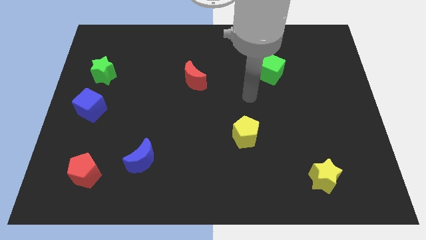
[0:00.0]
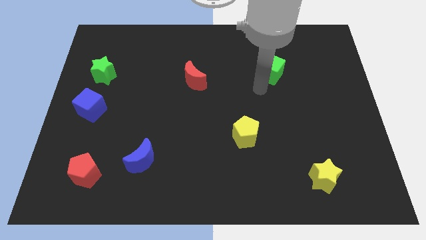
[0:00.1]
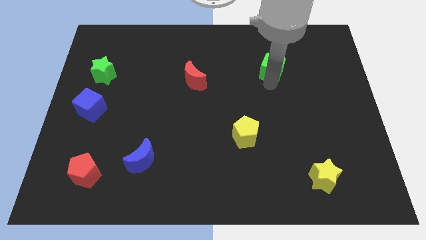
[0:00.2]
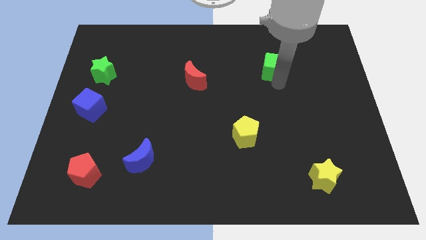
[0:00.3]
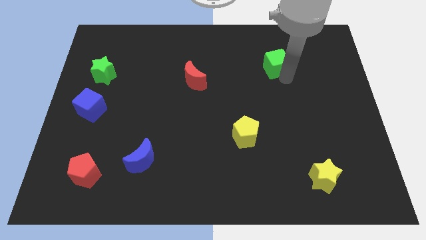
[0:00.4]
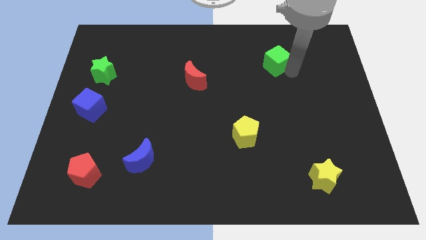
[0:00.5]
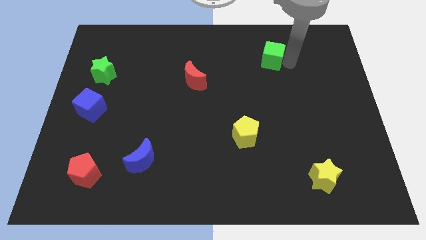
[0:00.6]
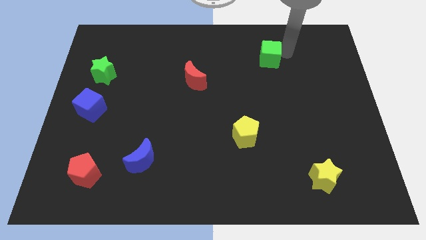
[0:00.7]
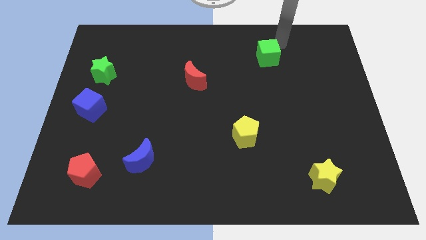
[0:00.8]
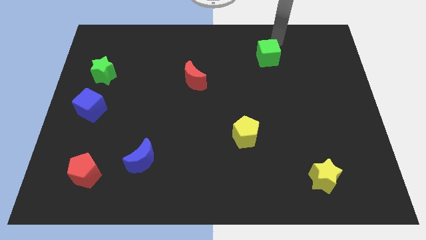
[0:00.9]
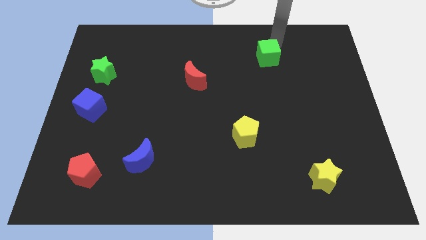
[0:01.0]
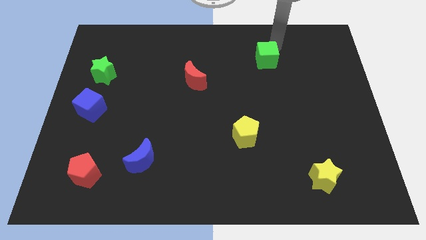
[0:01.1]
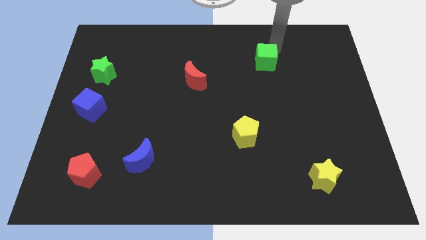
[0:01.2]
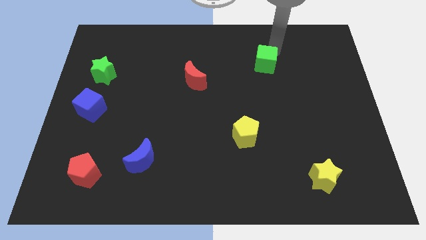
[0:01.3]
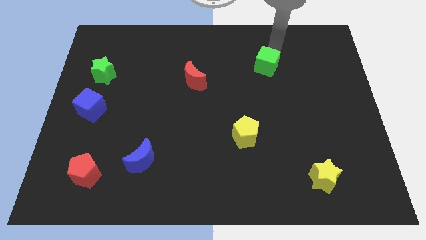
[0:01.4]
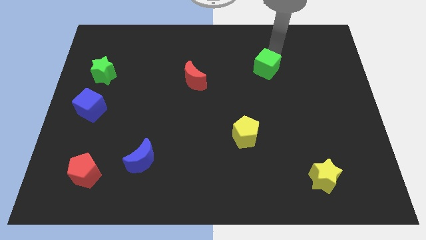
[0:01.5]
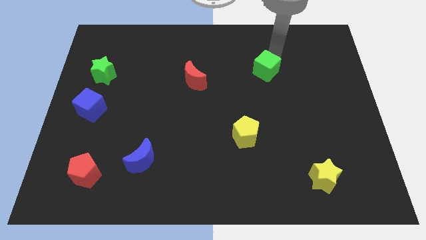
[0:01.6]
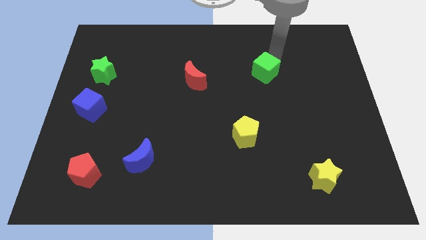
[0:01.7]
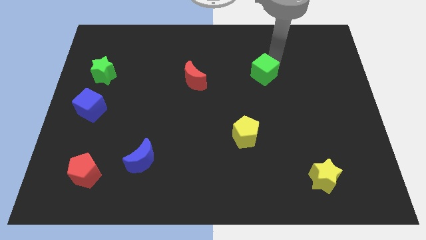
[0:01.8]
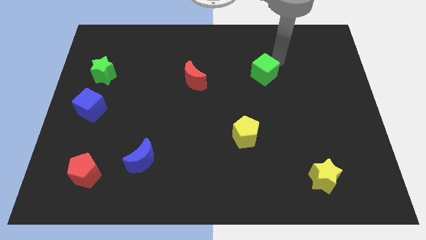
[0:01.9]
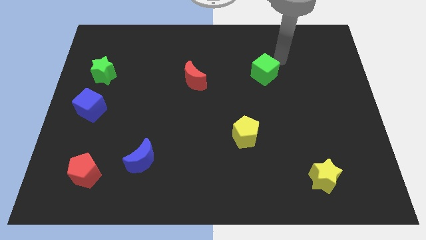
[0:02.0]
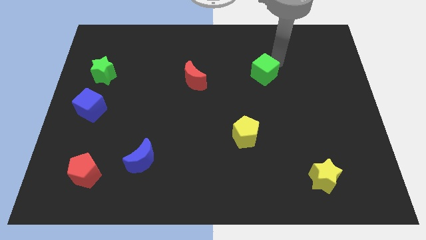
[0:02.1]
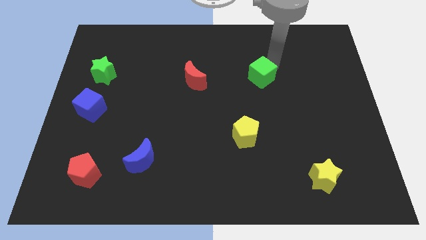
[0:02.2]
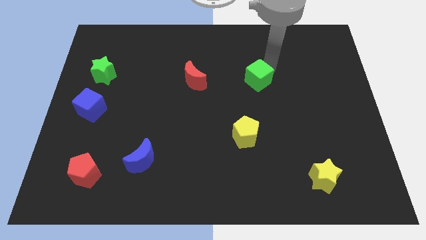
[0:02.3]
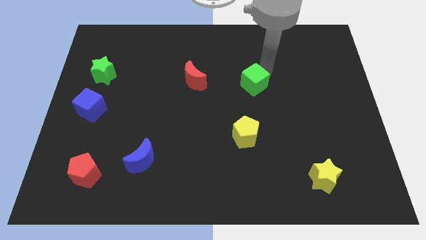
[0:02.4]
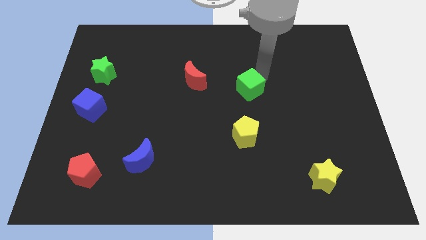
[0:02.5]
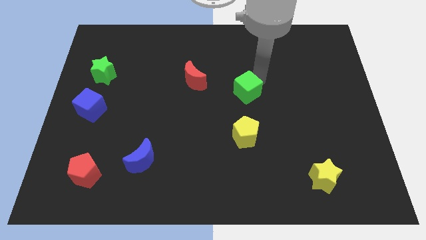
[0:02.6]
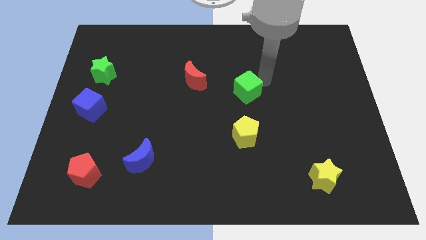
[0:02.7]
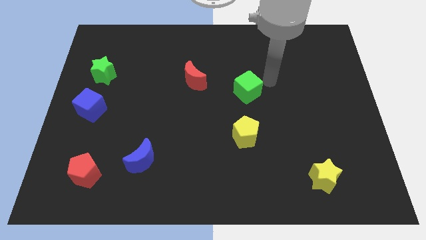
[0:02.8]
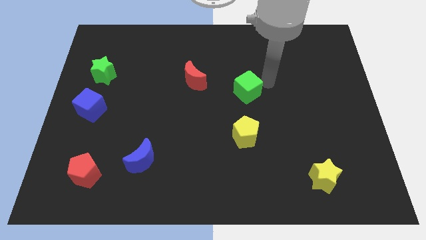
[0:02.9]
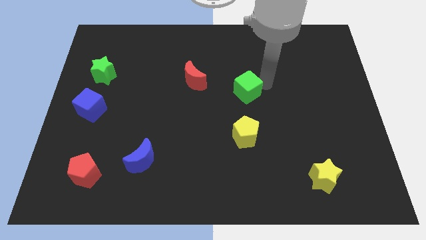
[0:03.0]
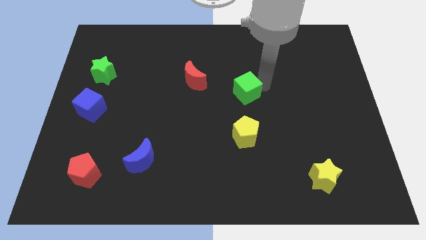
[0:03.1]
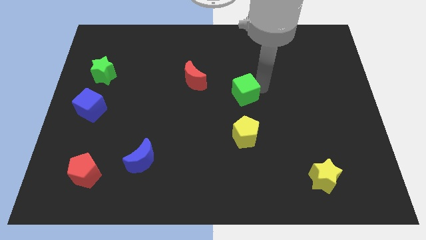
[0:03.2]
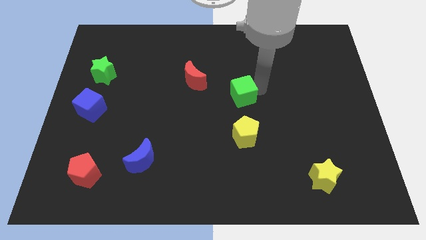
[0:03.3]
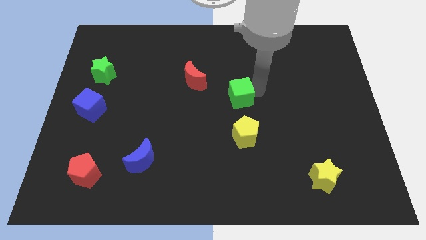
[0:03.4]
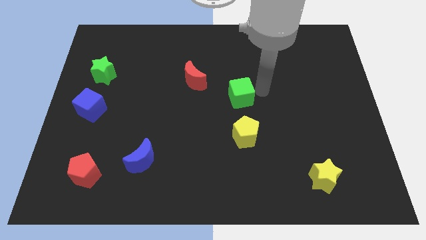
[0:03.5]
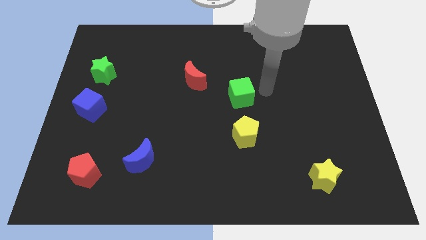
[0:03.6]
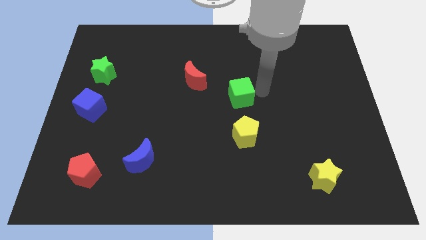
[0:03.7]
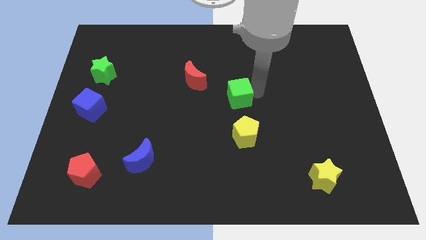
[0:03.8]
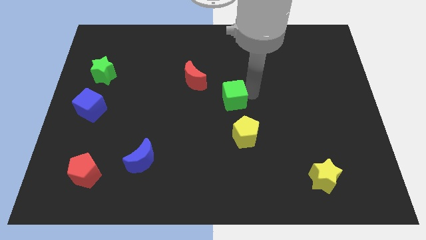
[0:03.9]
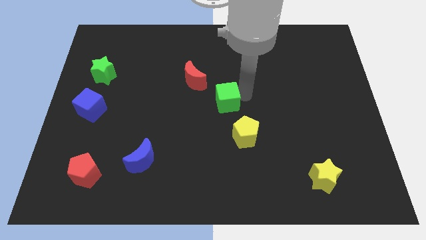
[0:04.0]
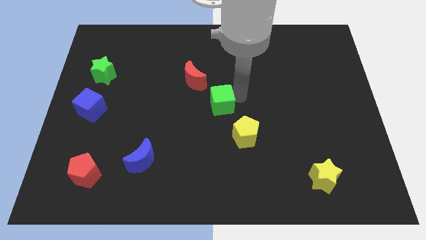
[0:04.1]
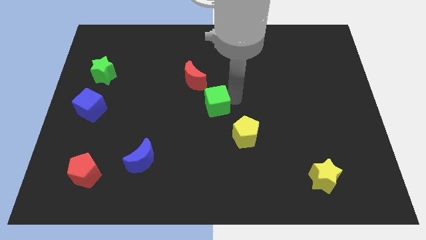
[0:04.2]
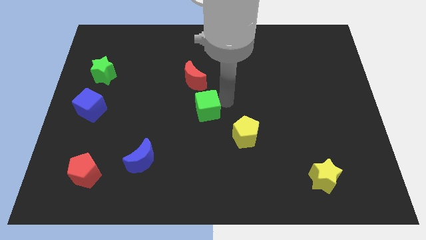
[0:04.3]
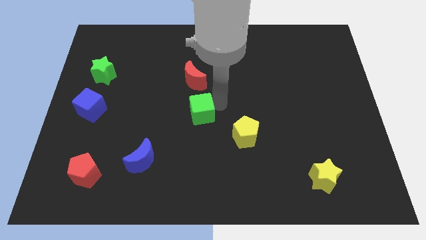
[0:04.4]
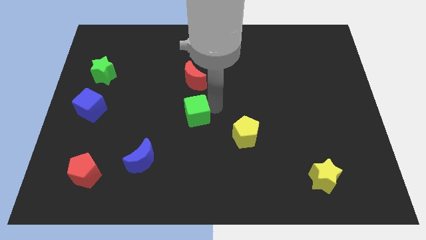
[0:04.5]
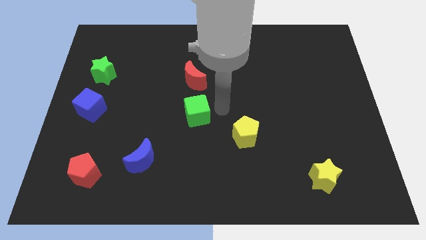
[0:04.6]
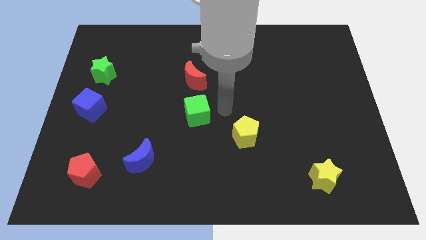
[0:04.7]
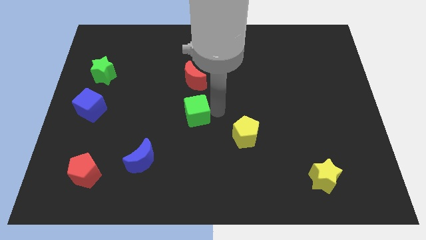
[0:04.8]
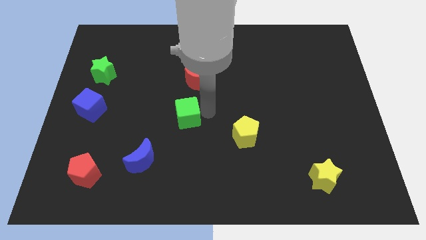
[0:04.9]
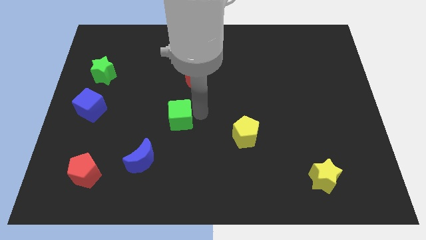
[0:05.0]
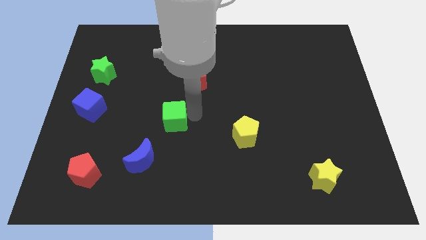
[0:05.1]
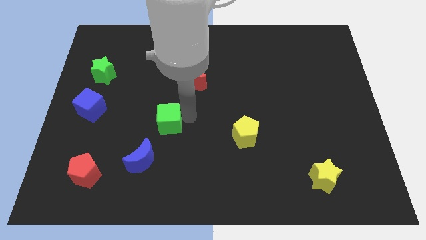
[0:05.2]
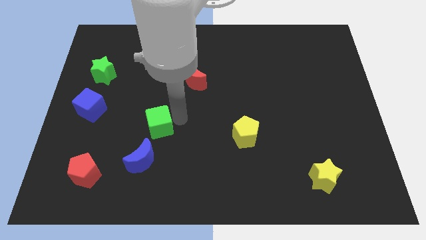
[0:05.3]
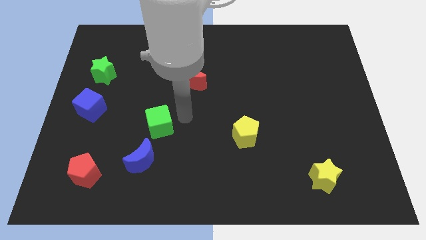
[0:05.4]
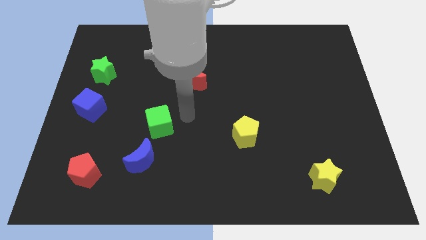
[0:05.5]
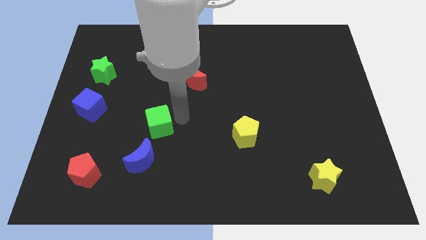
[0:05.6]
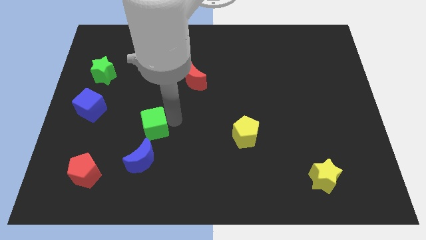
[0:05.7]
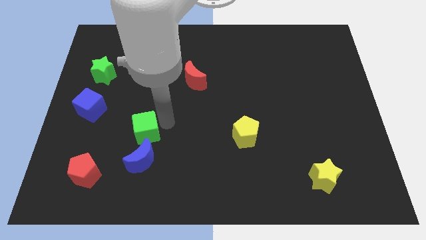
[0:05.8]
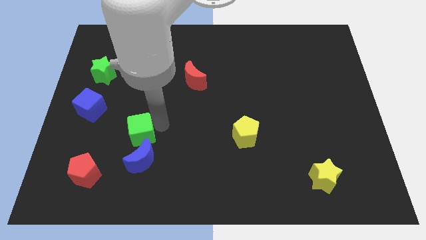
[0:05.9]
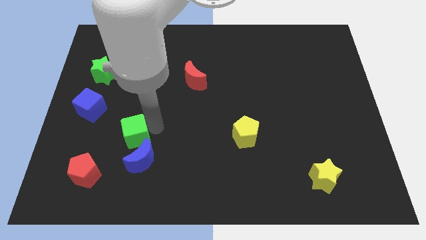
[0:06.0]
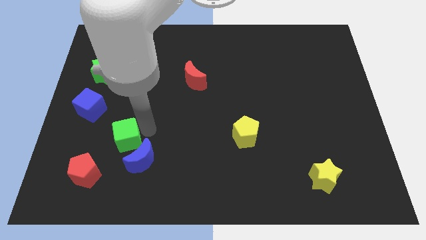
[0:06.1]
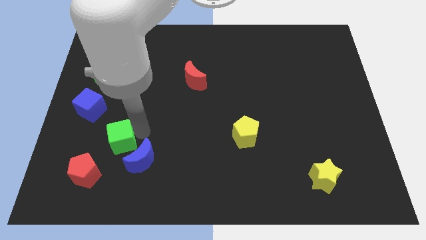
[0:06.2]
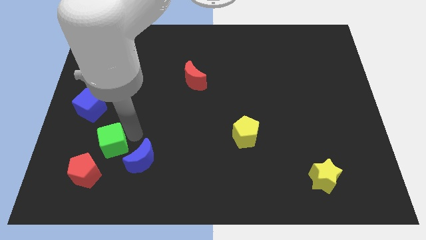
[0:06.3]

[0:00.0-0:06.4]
put the green cube to the left side of the blue moon

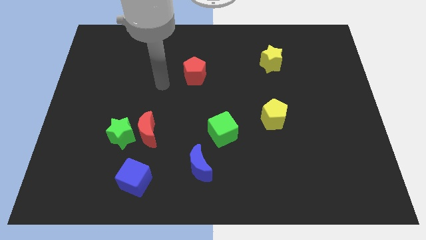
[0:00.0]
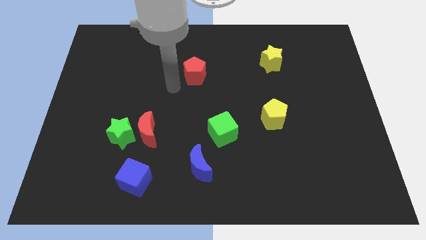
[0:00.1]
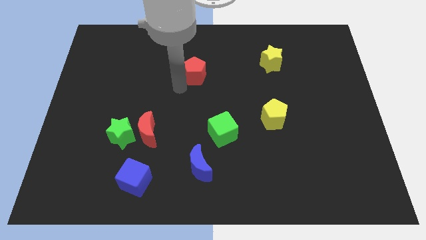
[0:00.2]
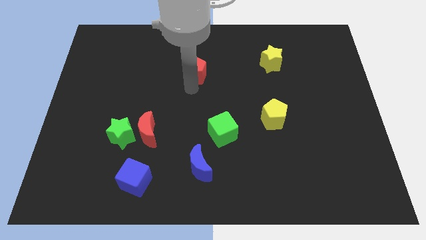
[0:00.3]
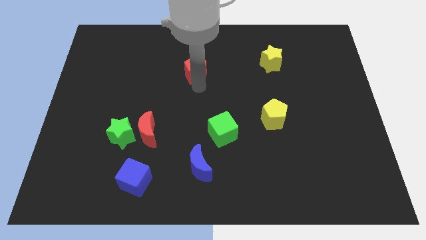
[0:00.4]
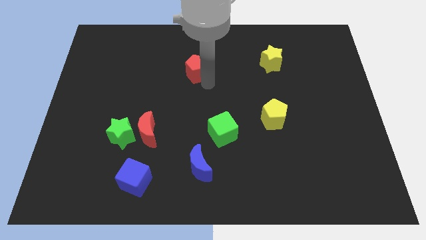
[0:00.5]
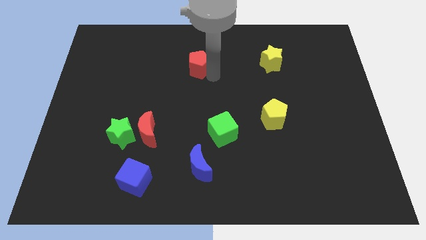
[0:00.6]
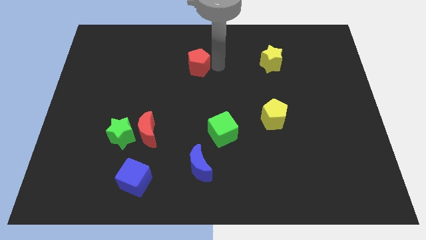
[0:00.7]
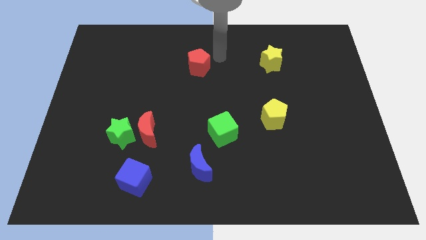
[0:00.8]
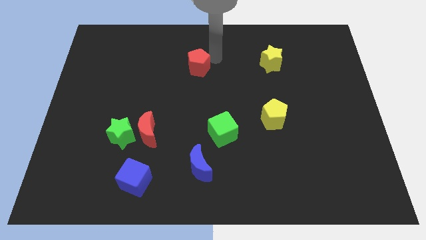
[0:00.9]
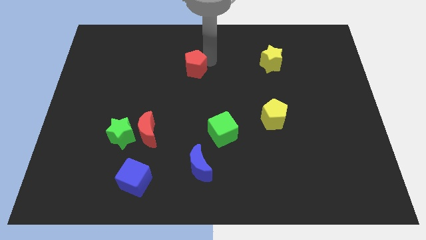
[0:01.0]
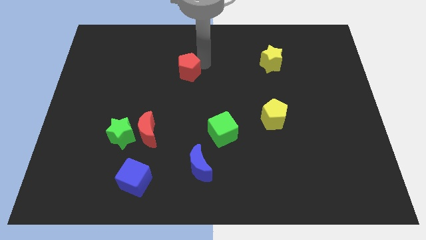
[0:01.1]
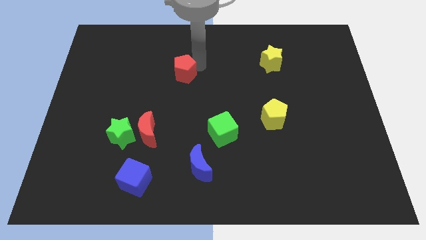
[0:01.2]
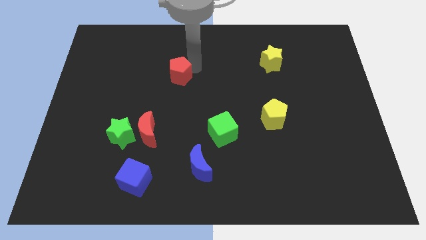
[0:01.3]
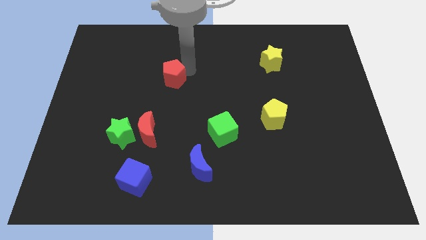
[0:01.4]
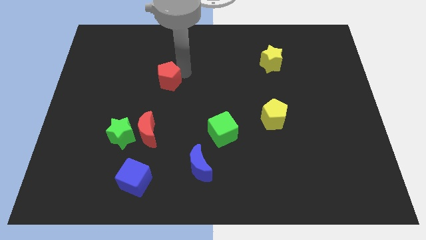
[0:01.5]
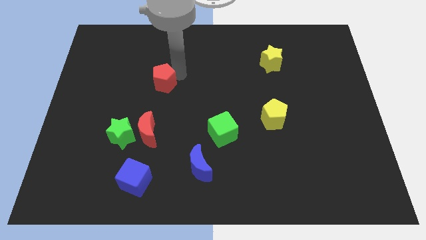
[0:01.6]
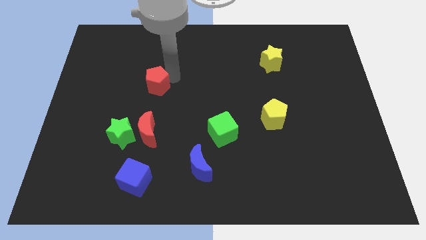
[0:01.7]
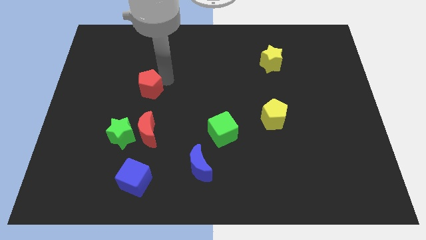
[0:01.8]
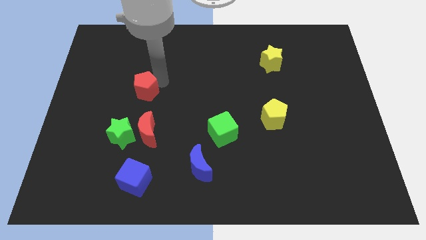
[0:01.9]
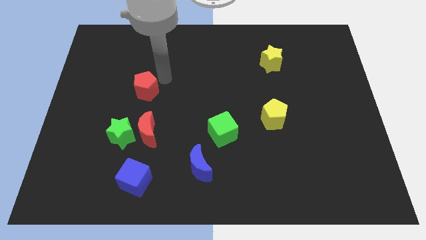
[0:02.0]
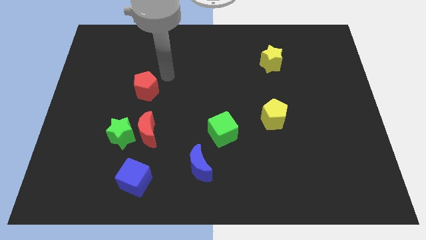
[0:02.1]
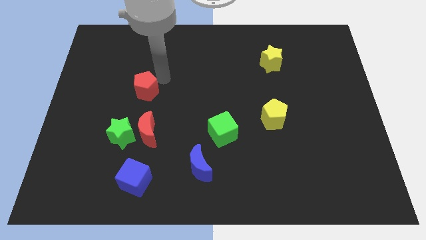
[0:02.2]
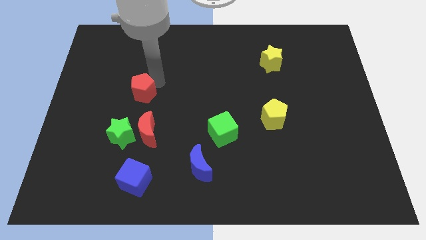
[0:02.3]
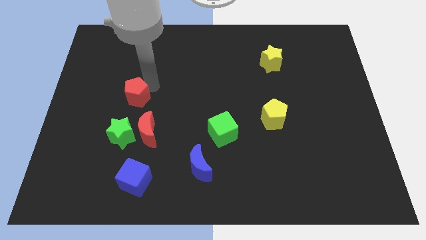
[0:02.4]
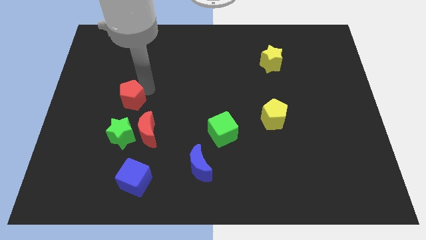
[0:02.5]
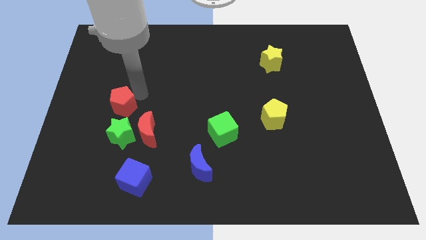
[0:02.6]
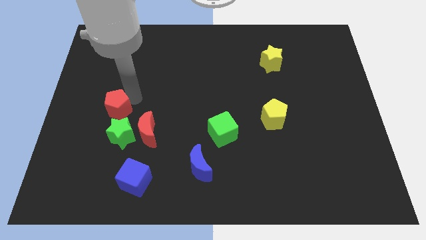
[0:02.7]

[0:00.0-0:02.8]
slide the red pentagon diagonally up and to the left of the green star
